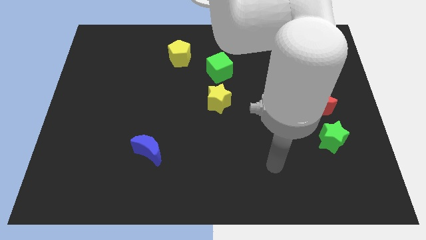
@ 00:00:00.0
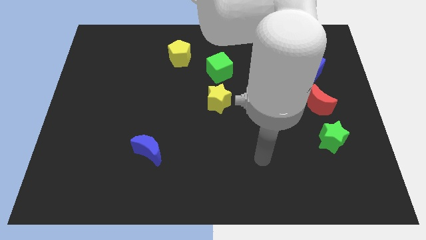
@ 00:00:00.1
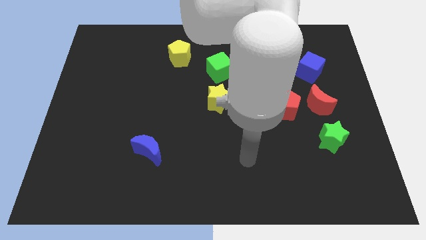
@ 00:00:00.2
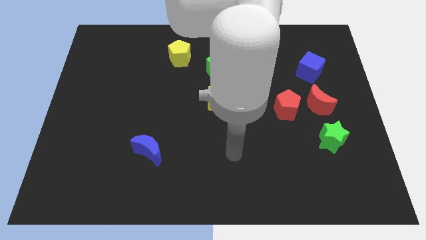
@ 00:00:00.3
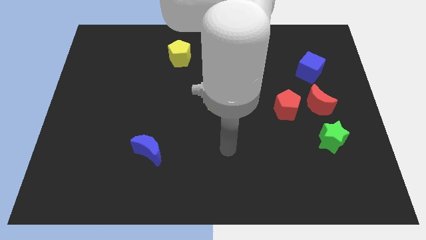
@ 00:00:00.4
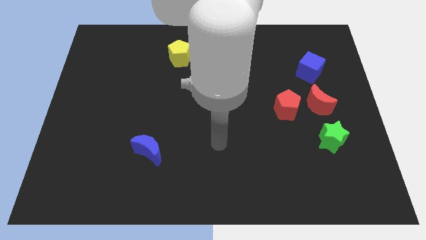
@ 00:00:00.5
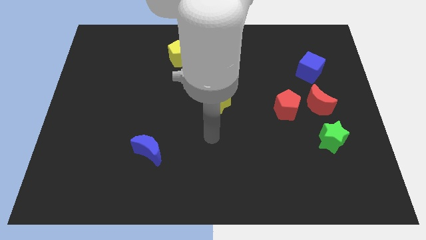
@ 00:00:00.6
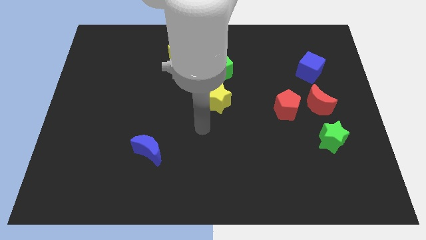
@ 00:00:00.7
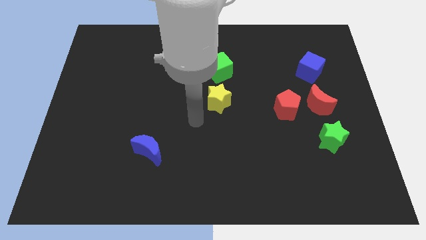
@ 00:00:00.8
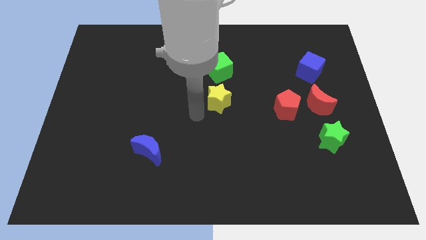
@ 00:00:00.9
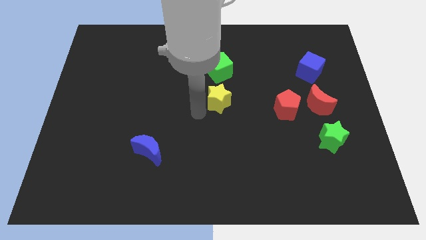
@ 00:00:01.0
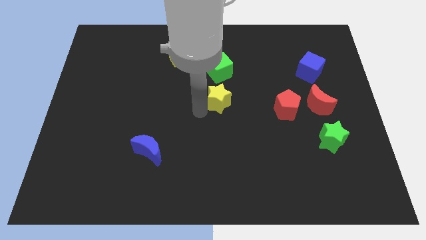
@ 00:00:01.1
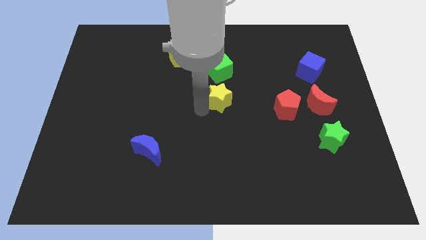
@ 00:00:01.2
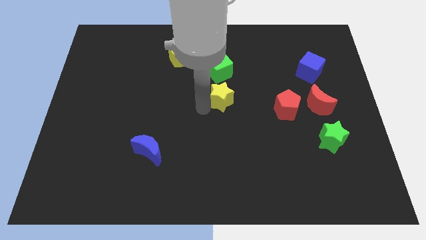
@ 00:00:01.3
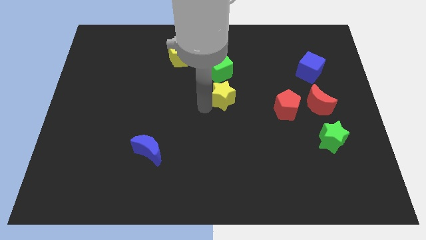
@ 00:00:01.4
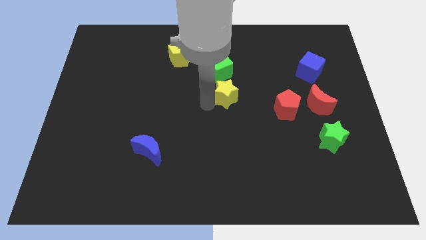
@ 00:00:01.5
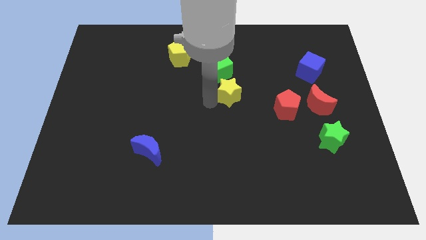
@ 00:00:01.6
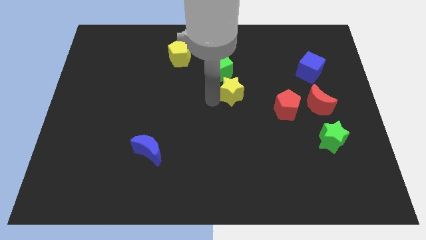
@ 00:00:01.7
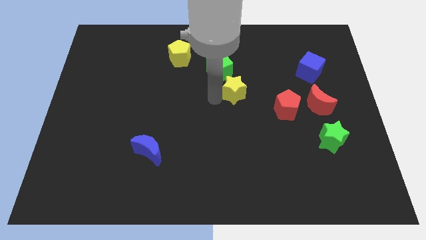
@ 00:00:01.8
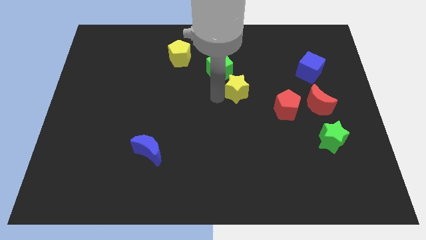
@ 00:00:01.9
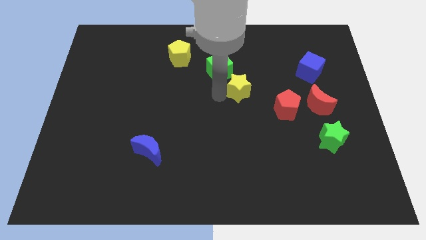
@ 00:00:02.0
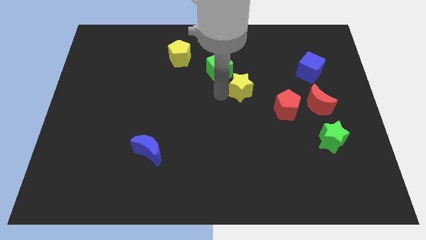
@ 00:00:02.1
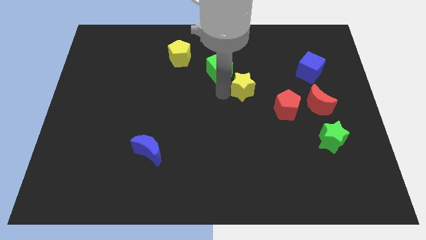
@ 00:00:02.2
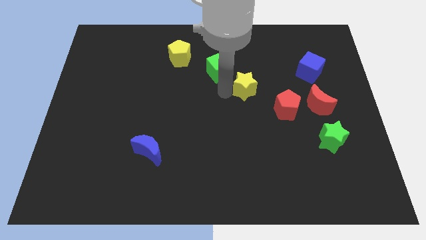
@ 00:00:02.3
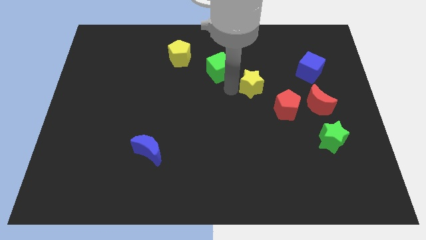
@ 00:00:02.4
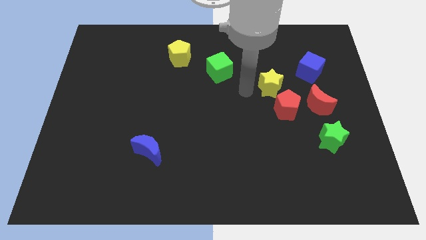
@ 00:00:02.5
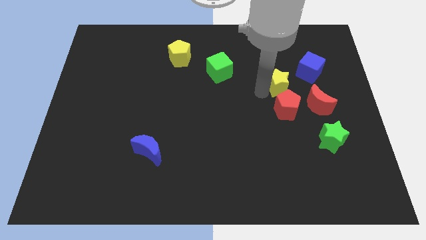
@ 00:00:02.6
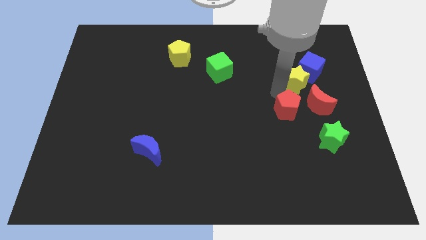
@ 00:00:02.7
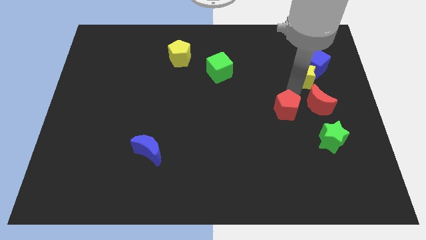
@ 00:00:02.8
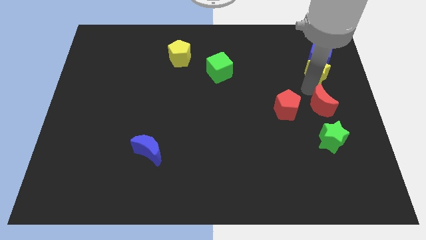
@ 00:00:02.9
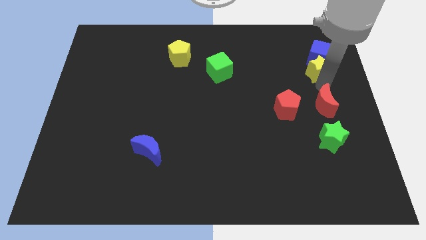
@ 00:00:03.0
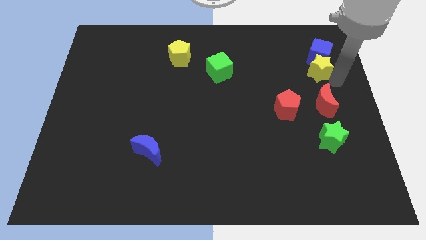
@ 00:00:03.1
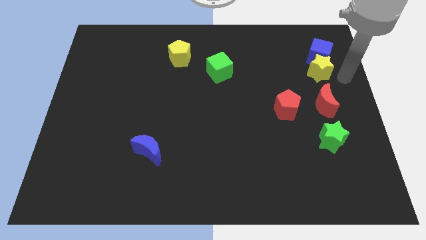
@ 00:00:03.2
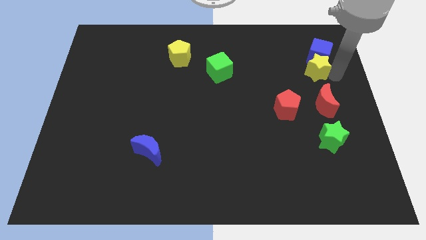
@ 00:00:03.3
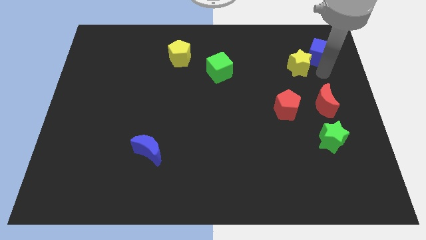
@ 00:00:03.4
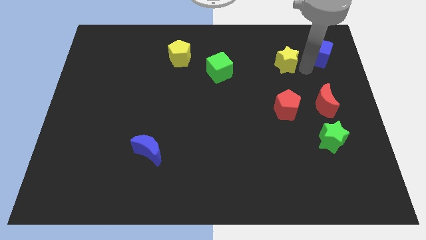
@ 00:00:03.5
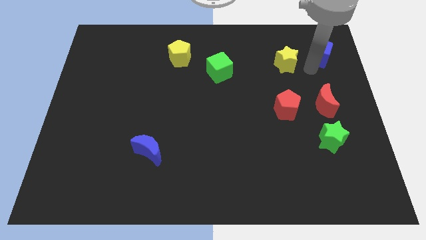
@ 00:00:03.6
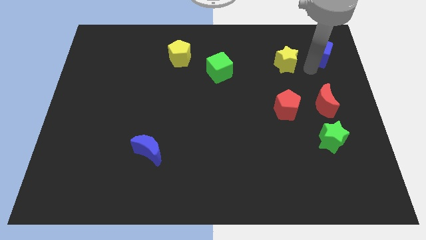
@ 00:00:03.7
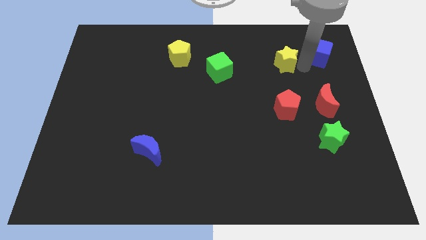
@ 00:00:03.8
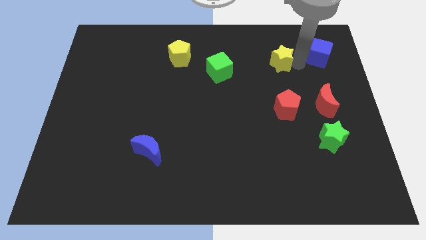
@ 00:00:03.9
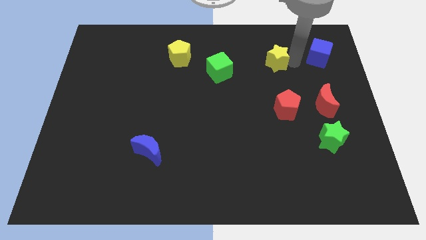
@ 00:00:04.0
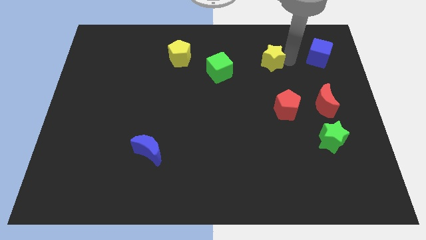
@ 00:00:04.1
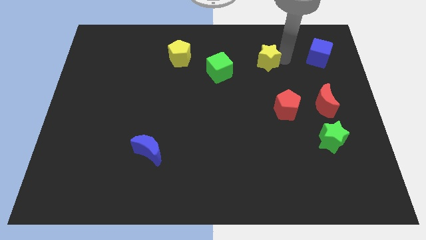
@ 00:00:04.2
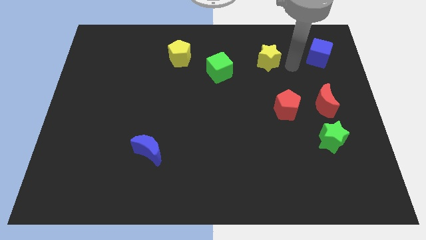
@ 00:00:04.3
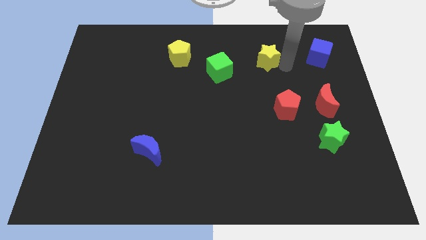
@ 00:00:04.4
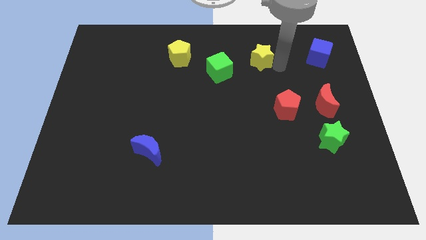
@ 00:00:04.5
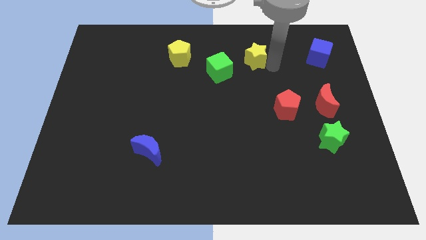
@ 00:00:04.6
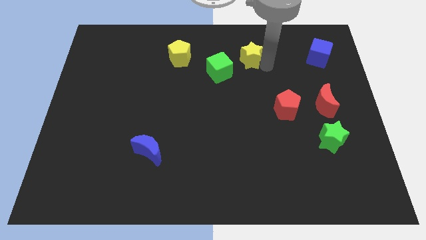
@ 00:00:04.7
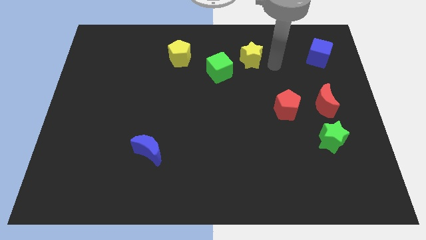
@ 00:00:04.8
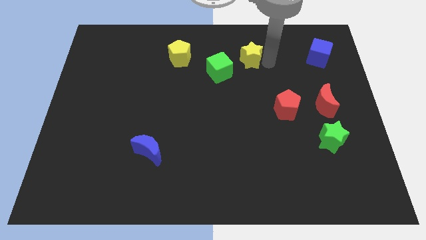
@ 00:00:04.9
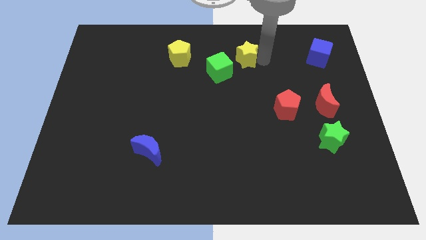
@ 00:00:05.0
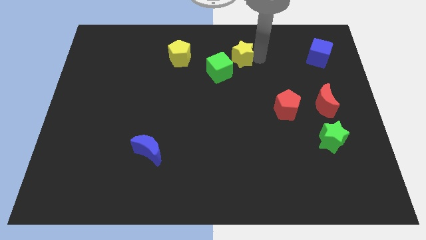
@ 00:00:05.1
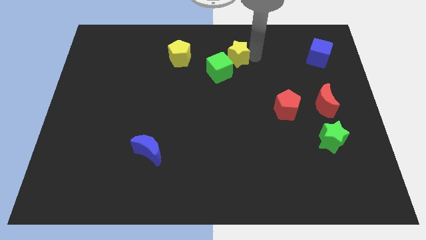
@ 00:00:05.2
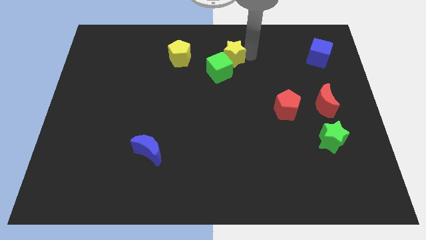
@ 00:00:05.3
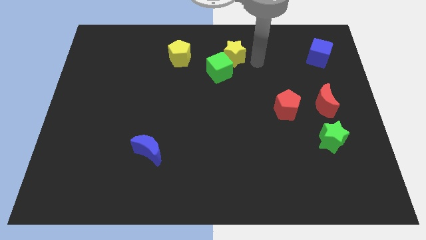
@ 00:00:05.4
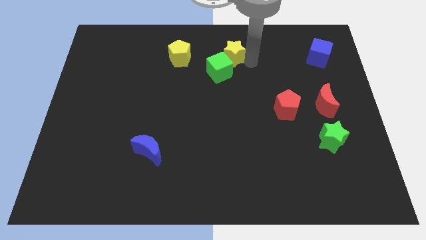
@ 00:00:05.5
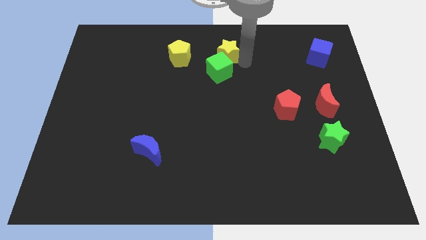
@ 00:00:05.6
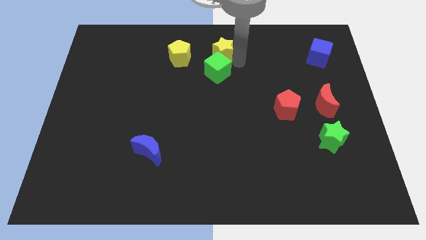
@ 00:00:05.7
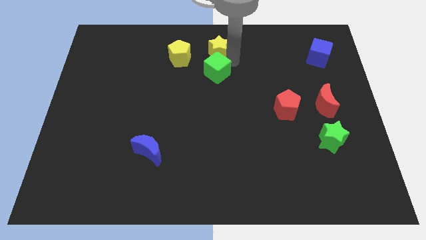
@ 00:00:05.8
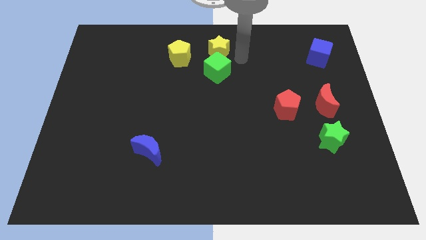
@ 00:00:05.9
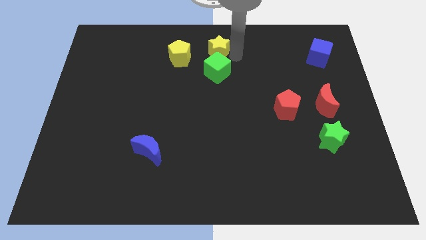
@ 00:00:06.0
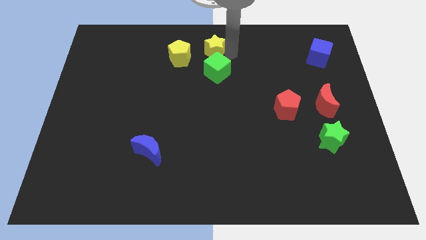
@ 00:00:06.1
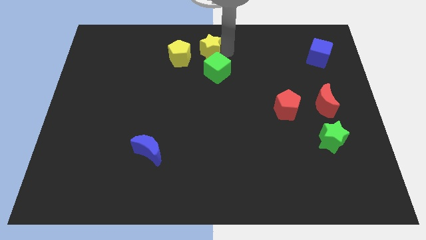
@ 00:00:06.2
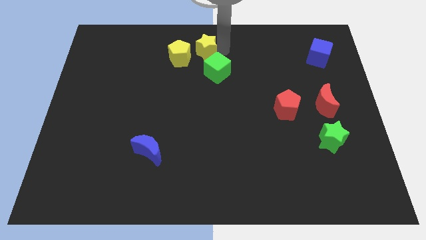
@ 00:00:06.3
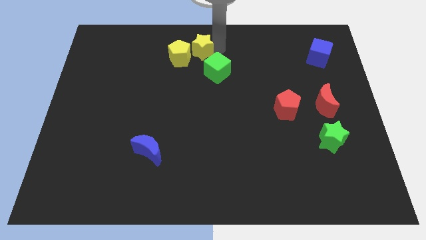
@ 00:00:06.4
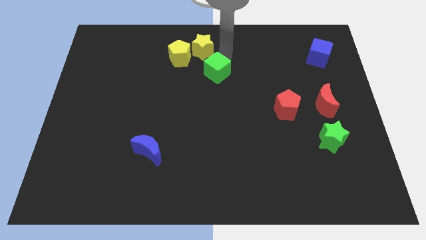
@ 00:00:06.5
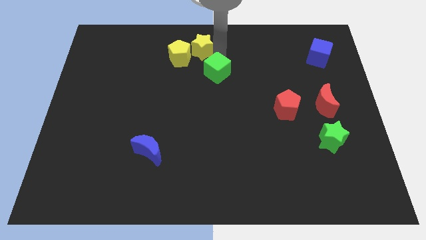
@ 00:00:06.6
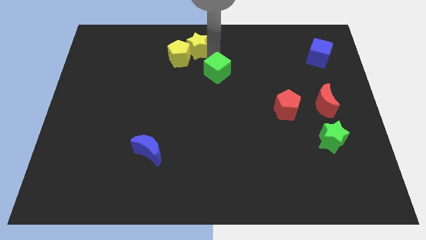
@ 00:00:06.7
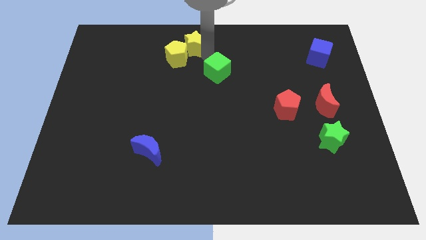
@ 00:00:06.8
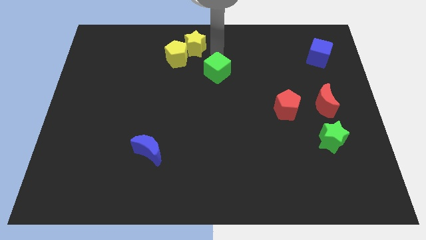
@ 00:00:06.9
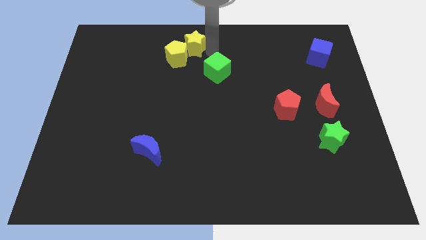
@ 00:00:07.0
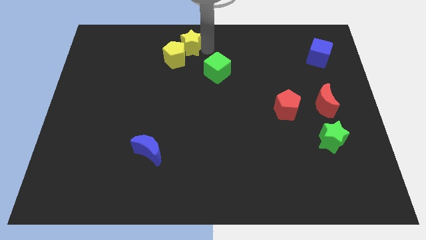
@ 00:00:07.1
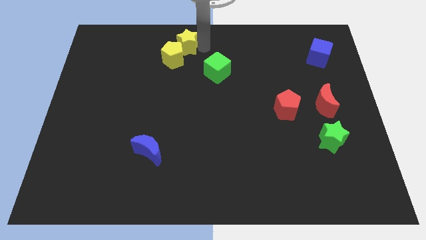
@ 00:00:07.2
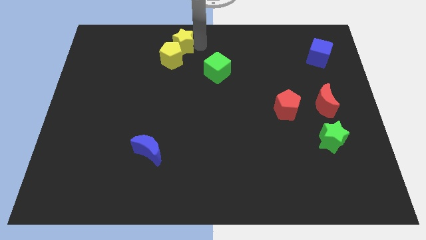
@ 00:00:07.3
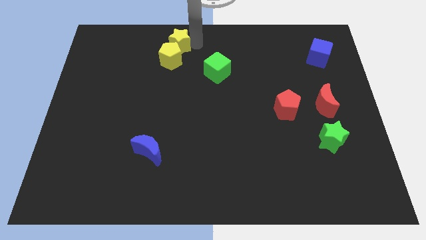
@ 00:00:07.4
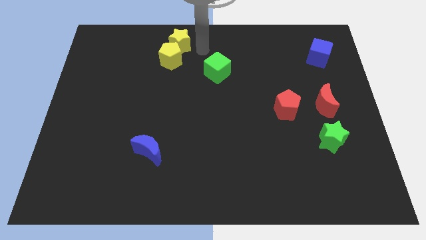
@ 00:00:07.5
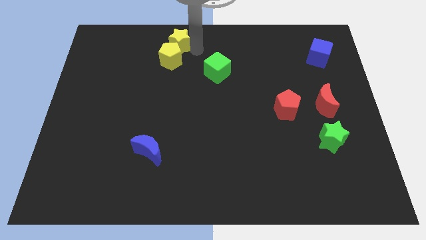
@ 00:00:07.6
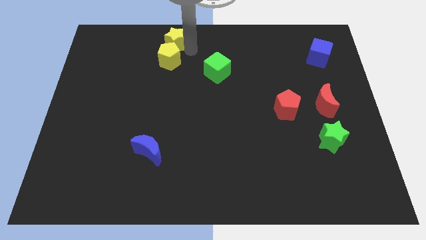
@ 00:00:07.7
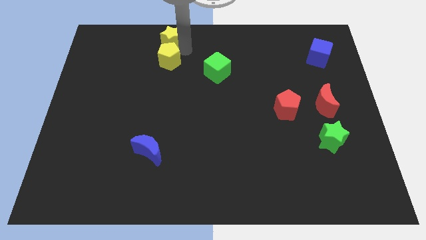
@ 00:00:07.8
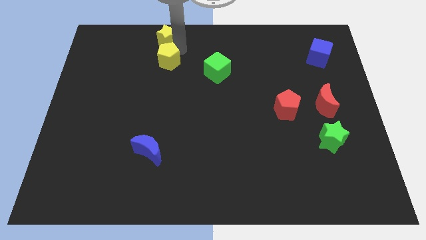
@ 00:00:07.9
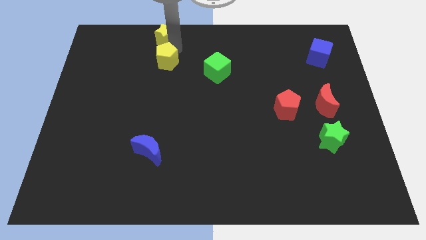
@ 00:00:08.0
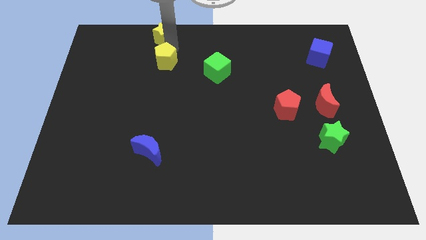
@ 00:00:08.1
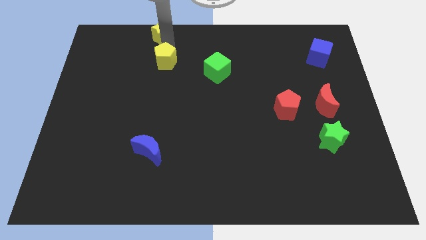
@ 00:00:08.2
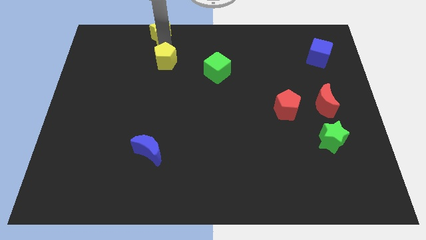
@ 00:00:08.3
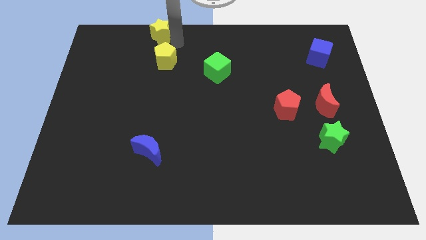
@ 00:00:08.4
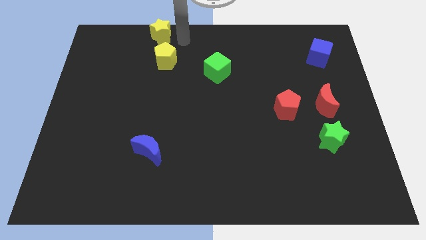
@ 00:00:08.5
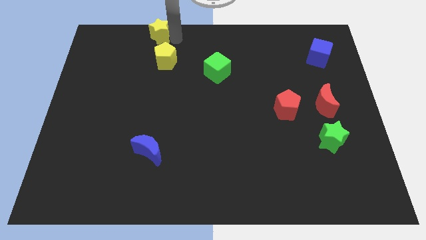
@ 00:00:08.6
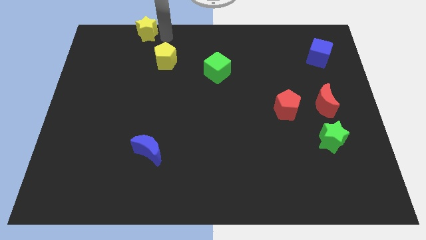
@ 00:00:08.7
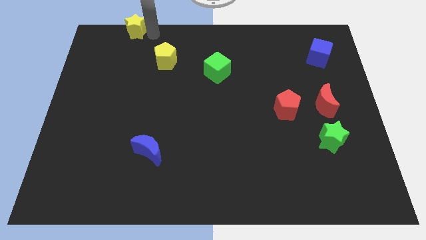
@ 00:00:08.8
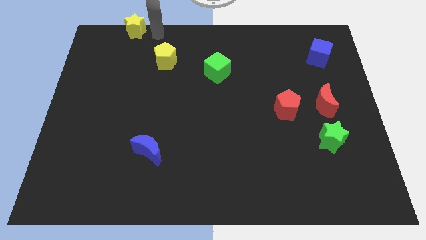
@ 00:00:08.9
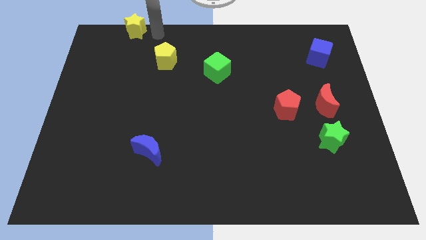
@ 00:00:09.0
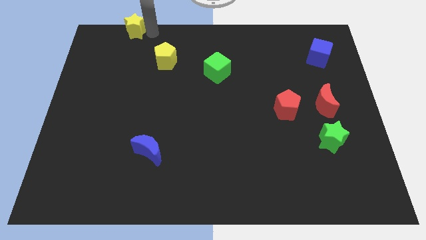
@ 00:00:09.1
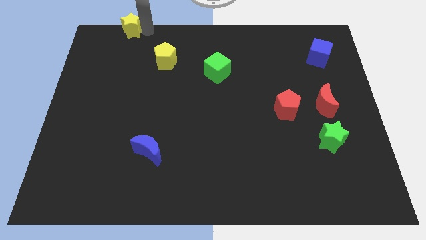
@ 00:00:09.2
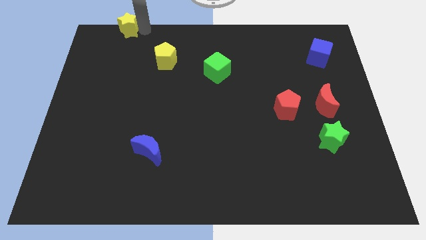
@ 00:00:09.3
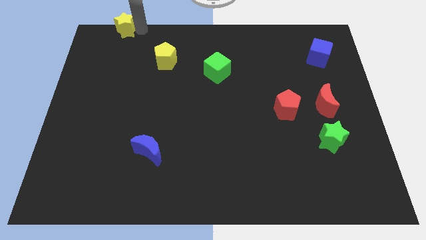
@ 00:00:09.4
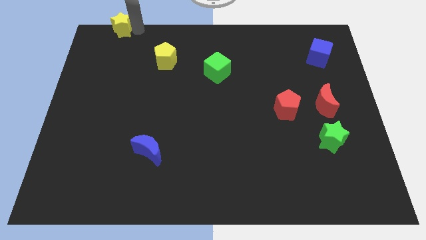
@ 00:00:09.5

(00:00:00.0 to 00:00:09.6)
slide the yellow star to the top left corner
